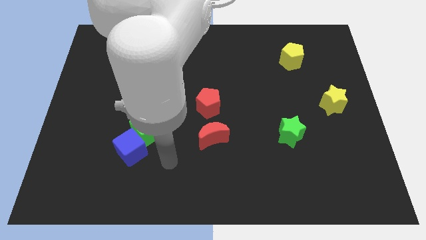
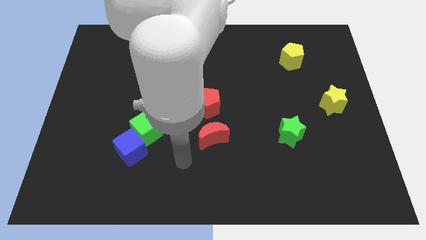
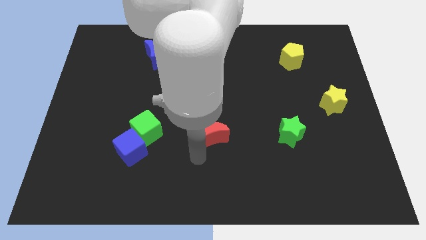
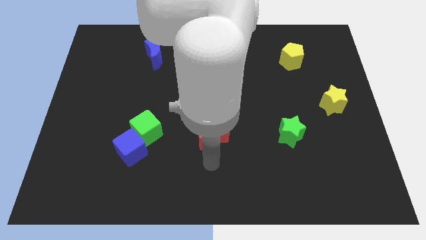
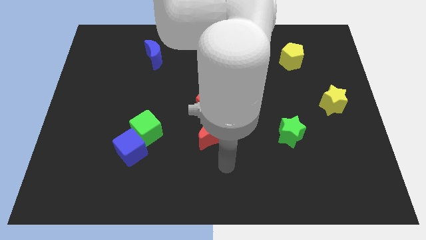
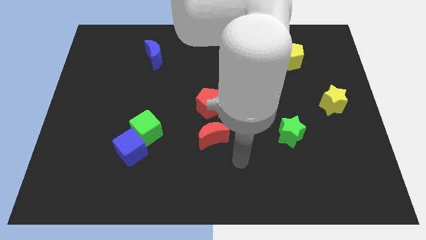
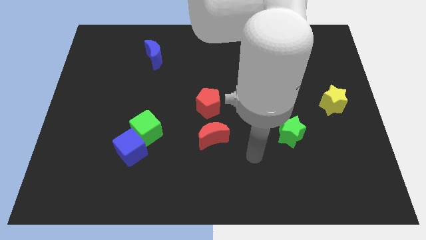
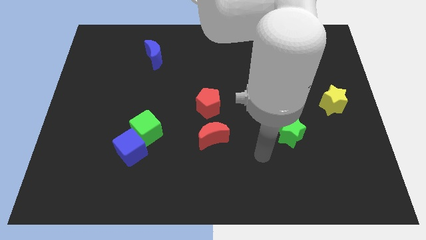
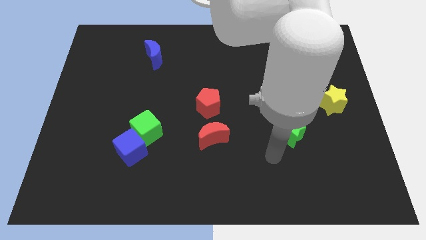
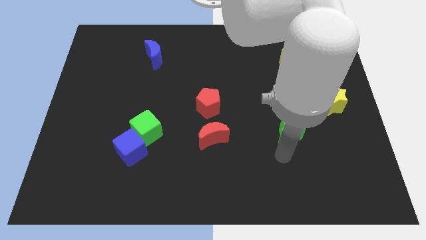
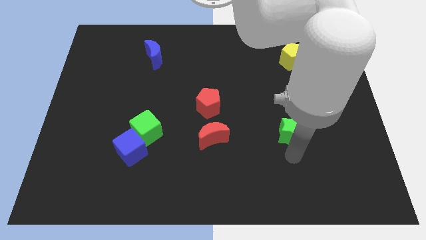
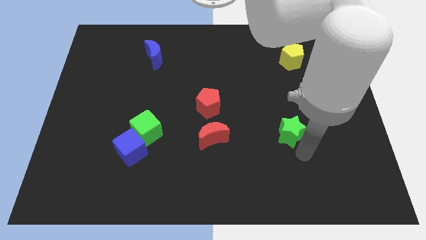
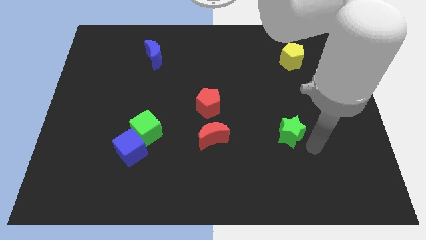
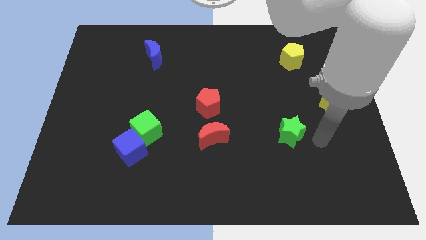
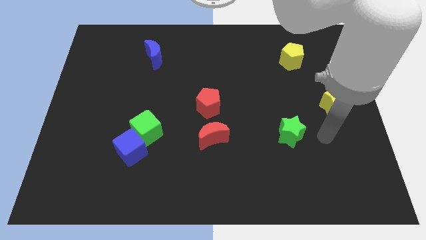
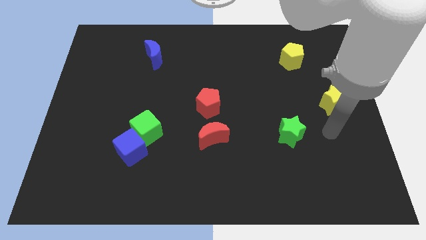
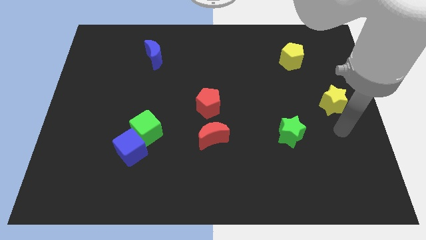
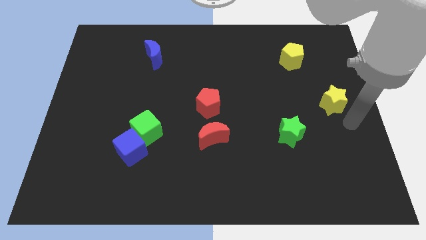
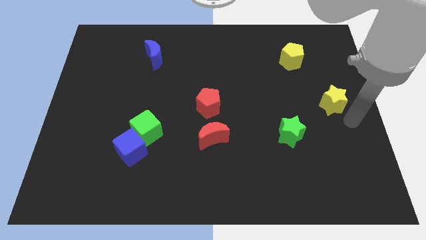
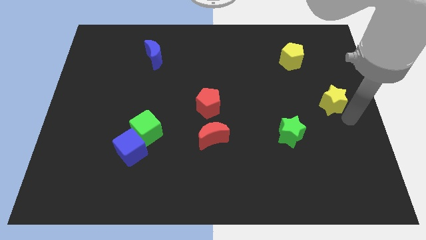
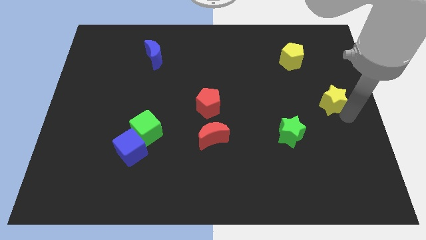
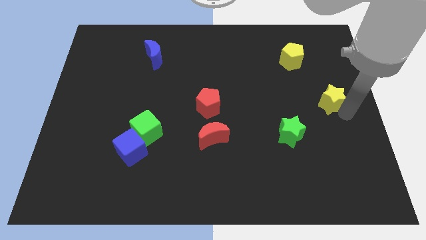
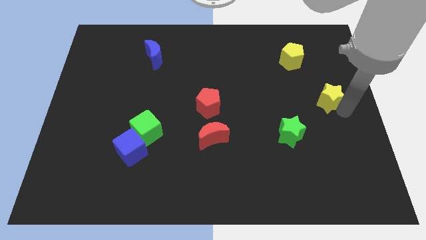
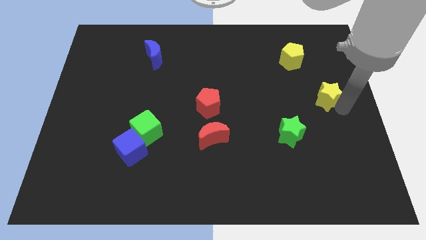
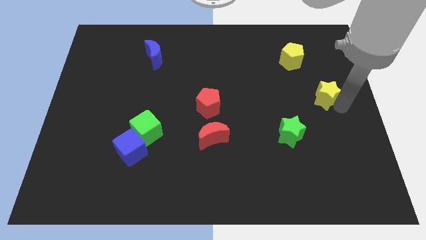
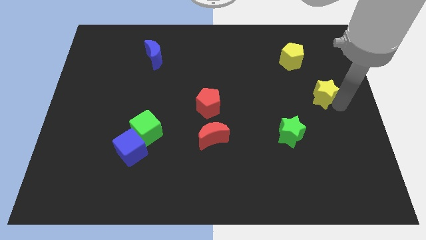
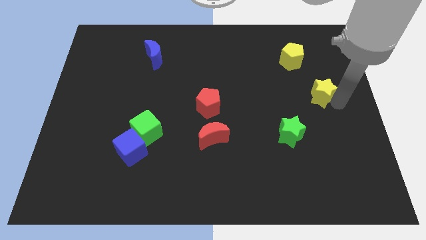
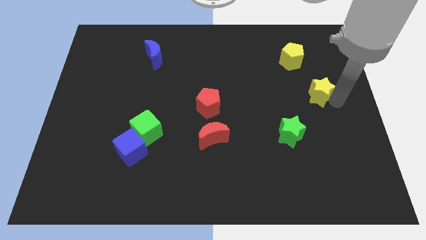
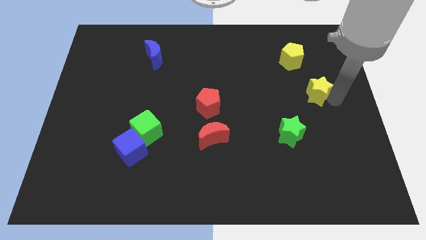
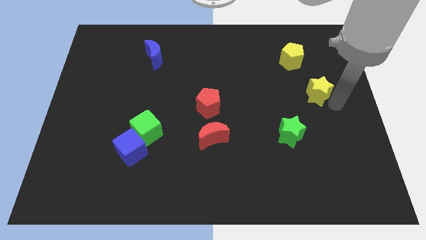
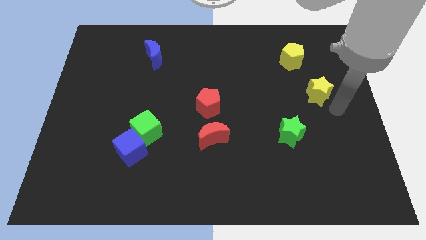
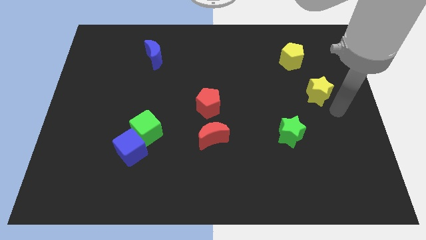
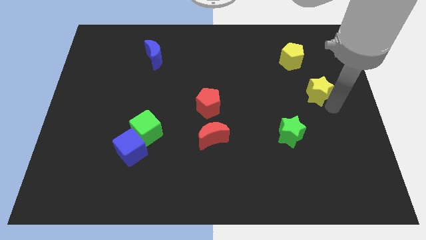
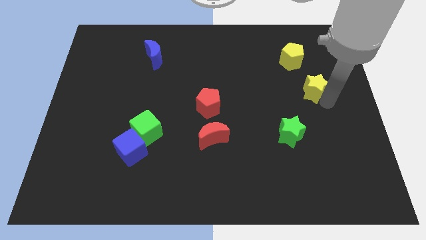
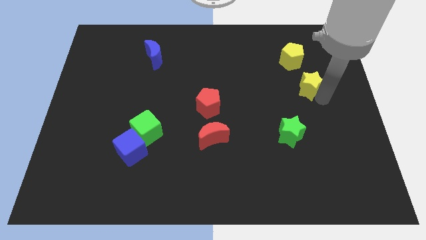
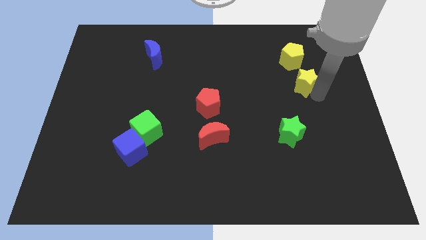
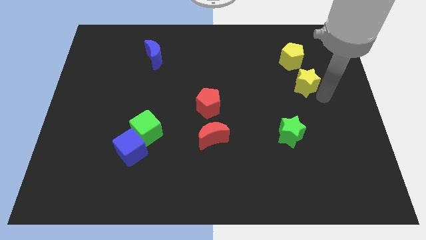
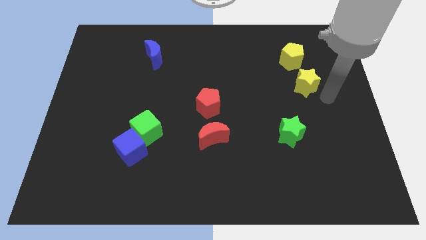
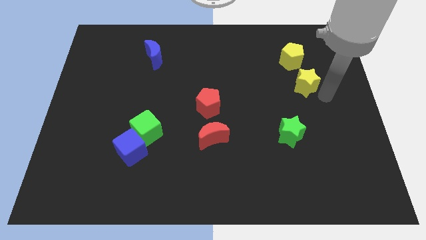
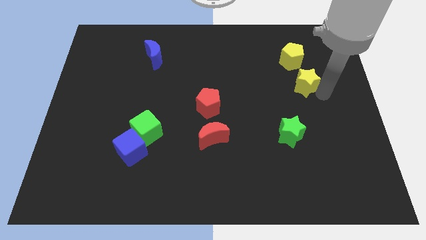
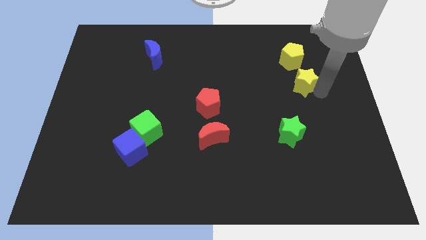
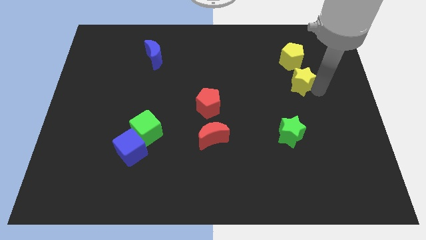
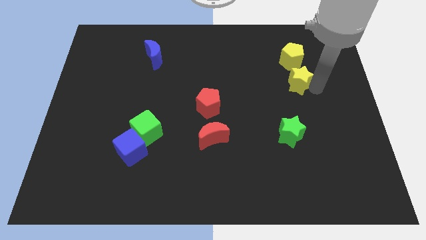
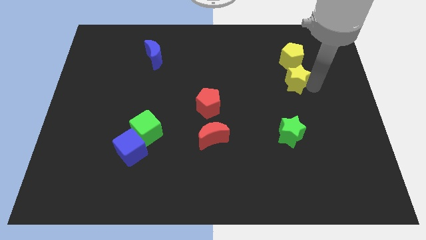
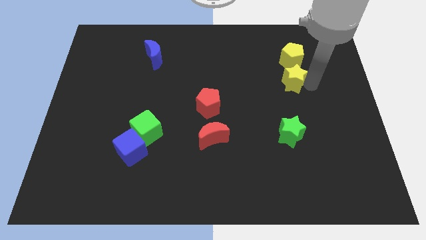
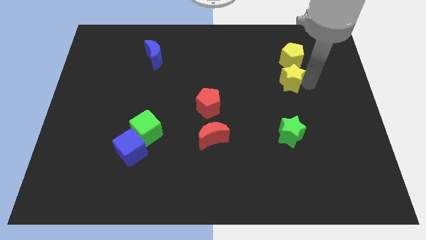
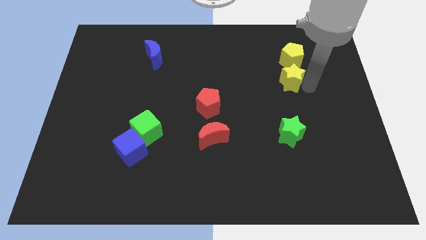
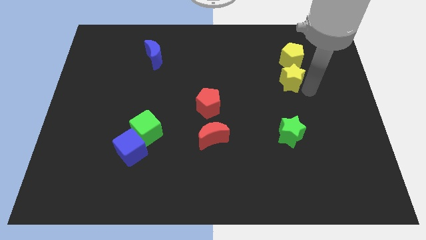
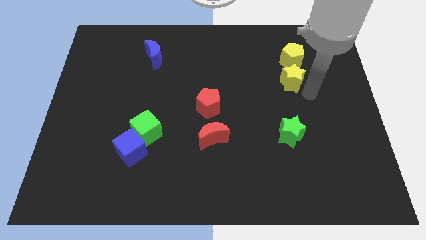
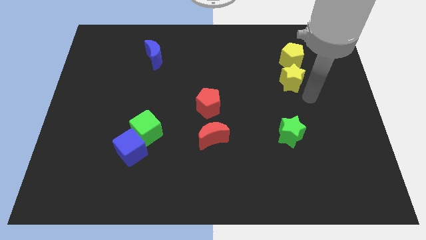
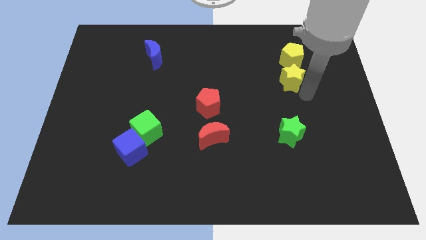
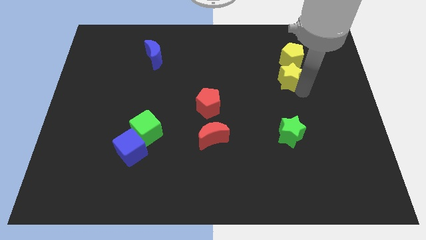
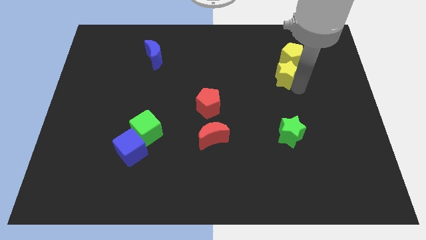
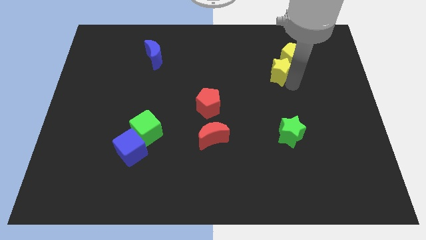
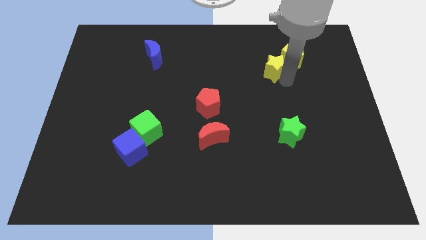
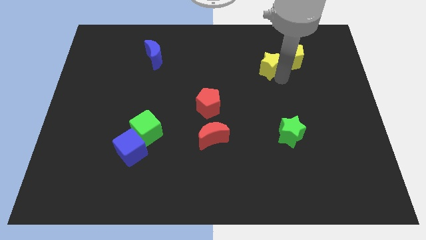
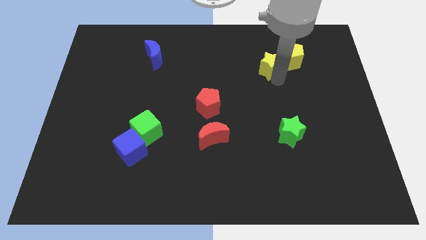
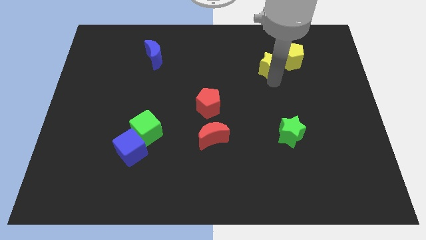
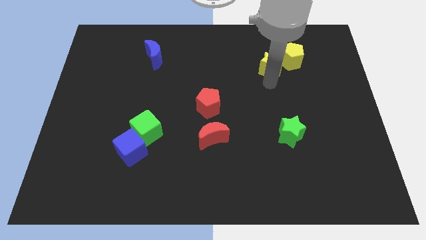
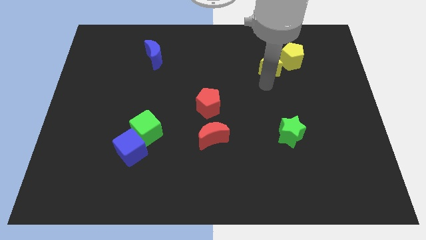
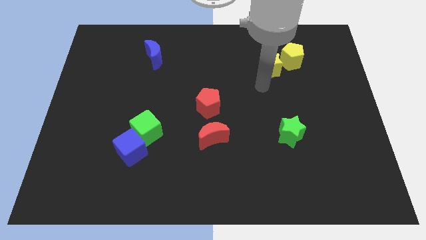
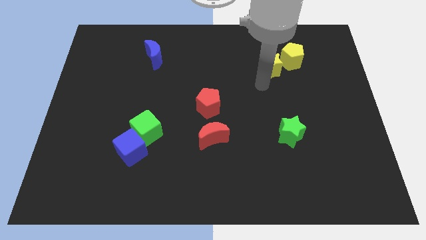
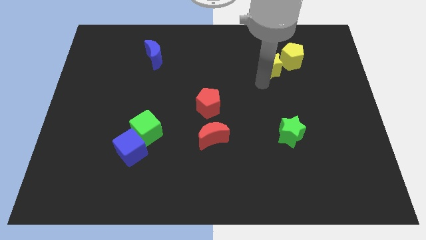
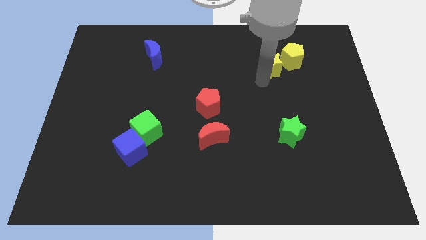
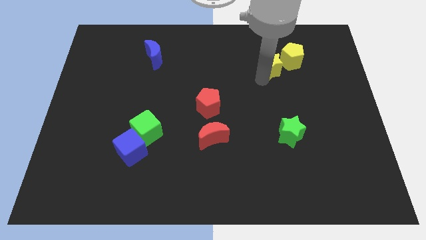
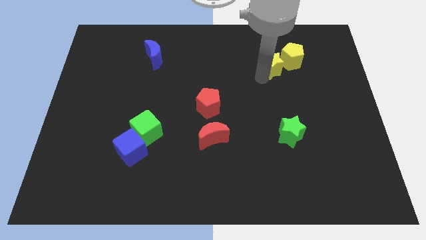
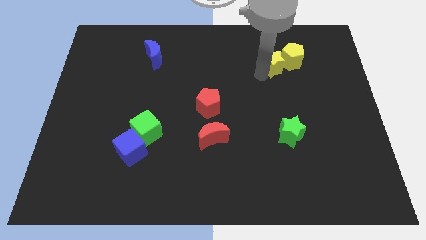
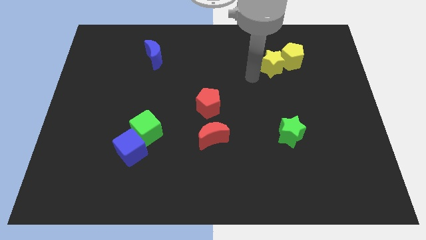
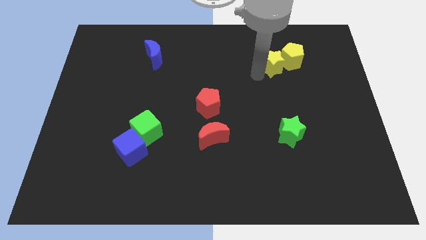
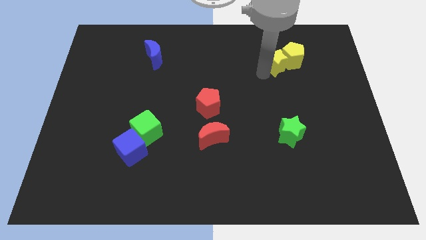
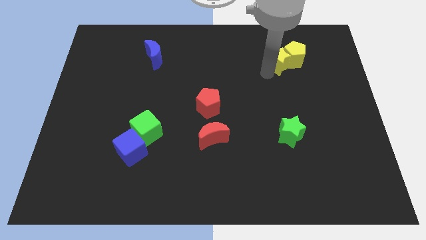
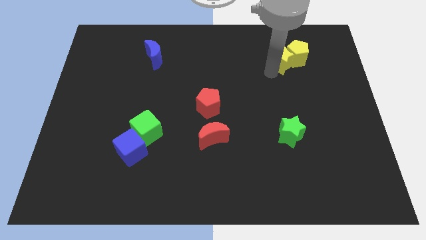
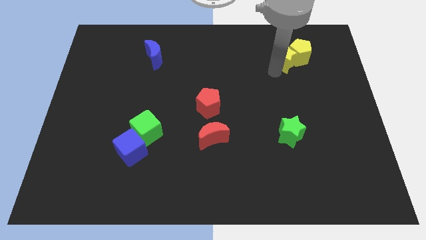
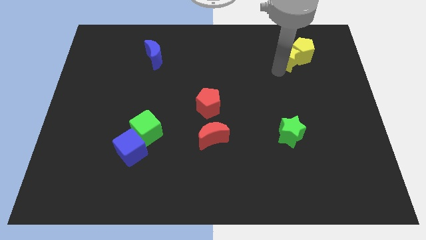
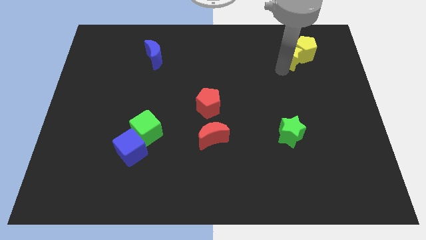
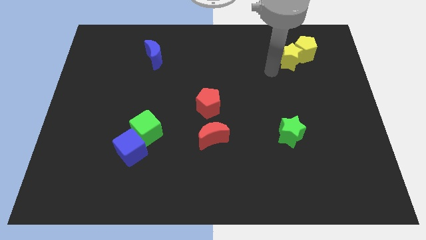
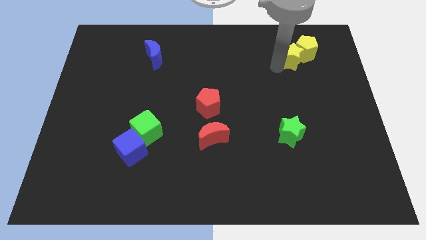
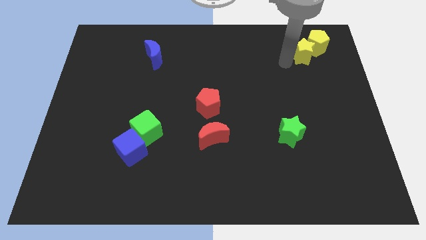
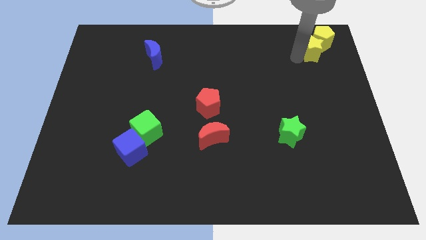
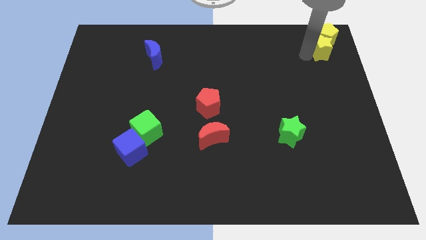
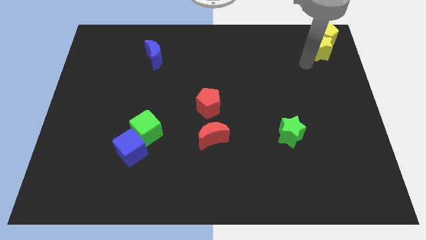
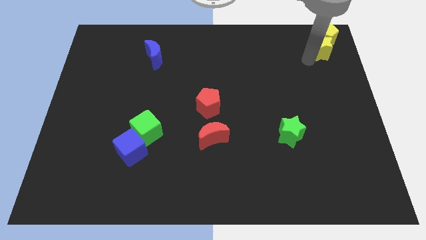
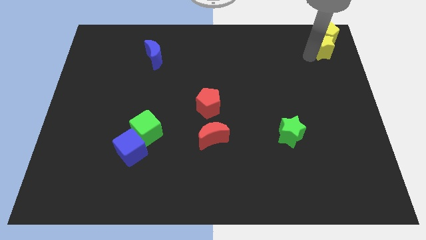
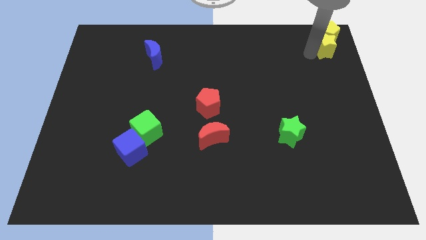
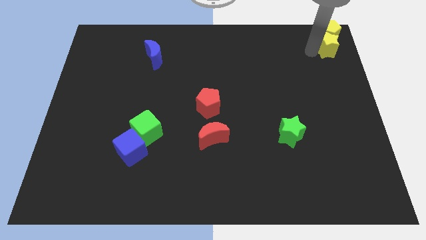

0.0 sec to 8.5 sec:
move the yellow star to the top right
